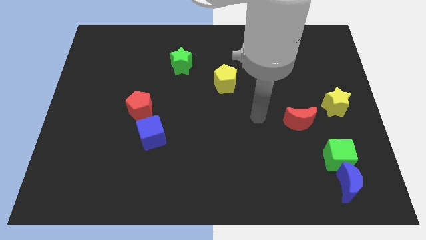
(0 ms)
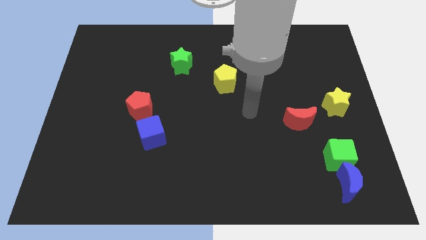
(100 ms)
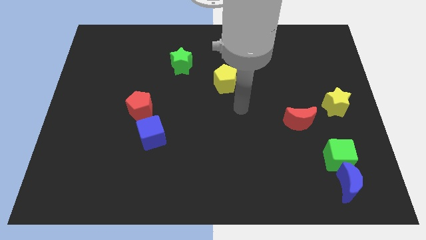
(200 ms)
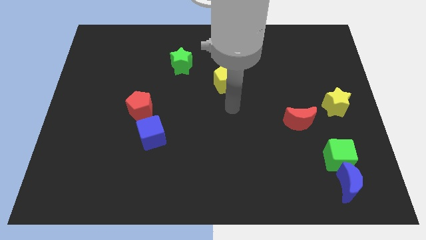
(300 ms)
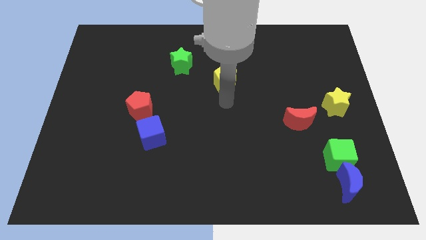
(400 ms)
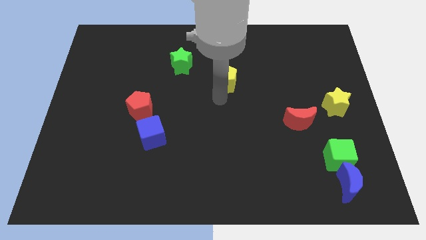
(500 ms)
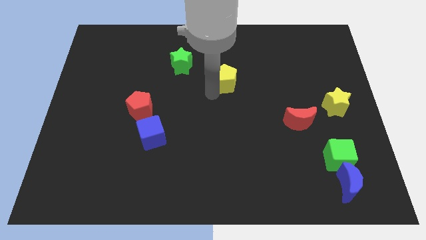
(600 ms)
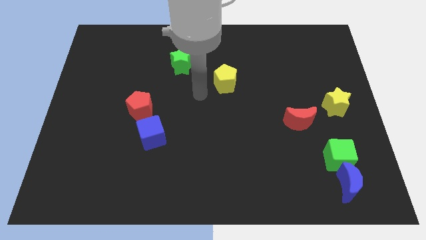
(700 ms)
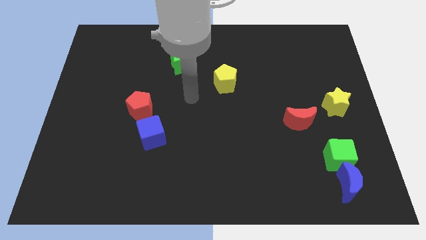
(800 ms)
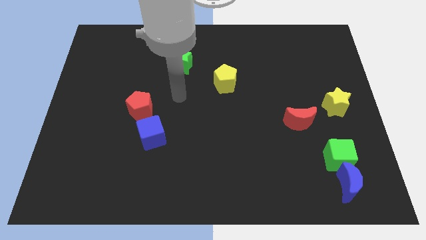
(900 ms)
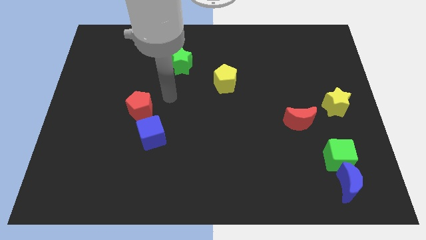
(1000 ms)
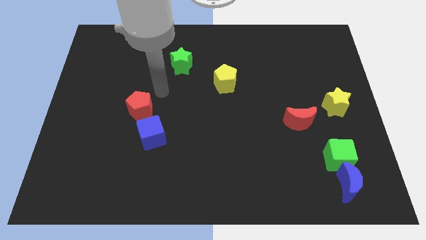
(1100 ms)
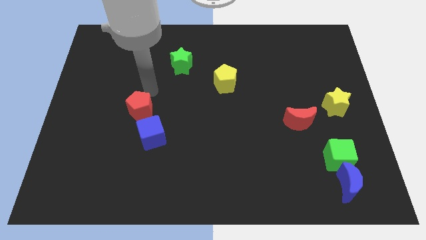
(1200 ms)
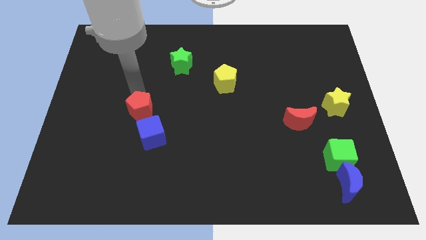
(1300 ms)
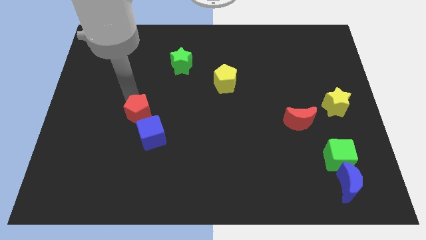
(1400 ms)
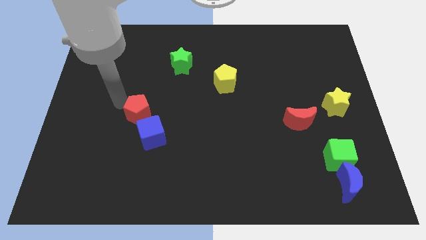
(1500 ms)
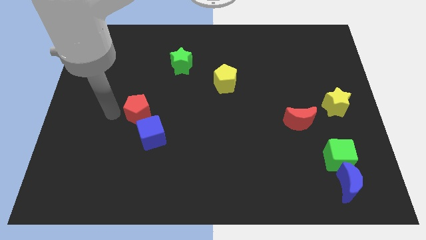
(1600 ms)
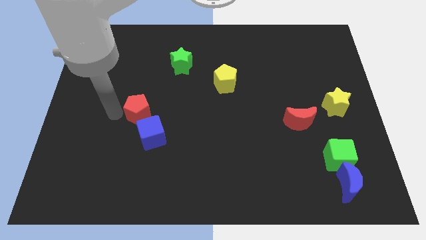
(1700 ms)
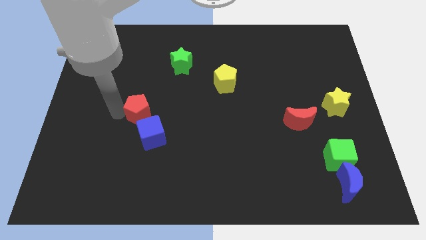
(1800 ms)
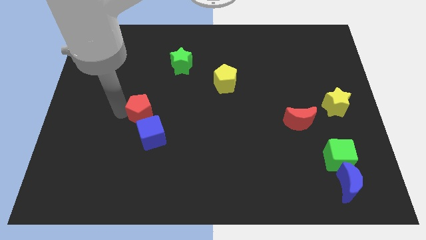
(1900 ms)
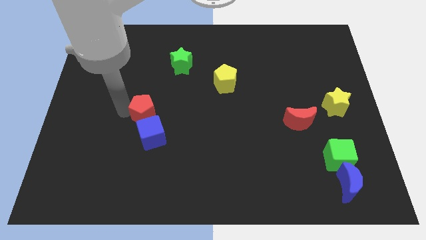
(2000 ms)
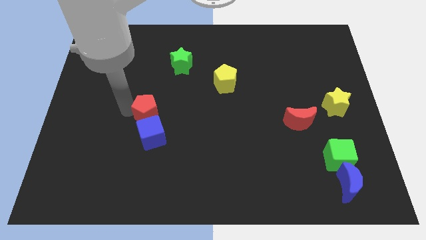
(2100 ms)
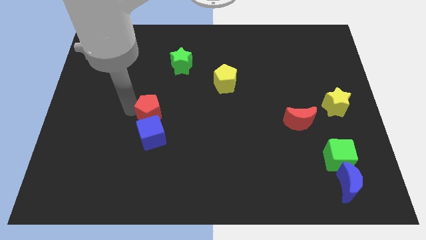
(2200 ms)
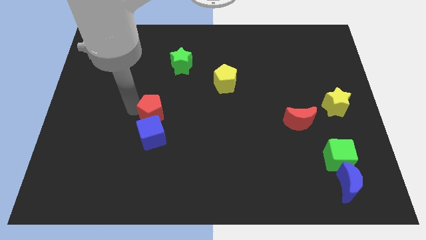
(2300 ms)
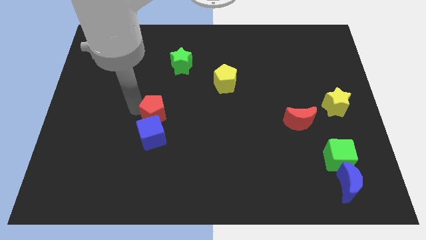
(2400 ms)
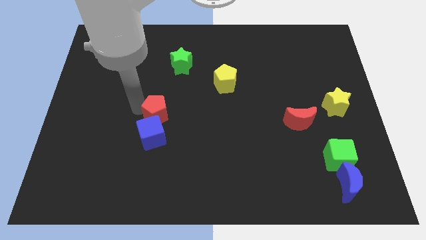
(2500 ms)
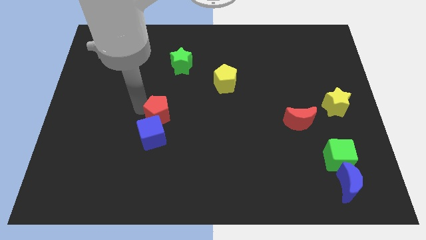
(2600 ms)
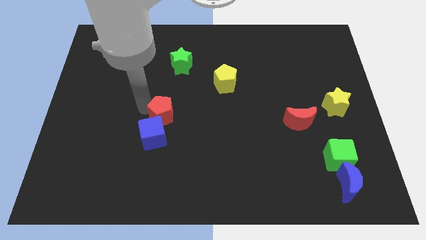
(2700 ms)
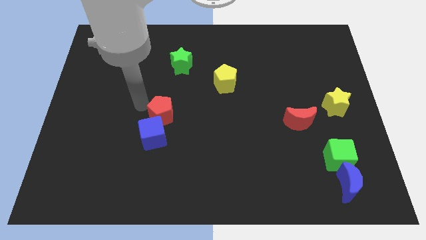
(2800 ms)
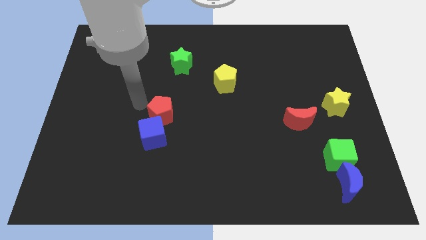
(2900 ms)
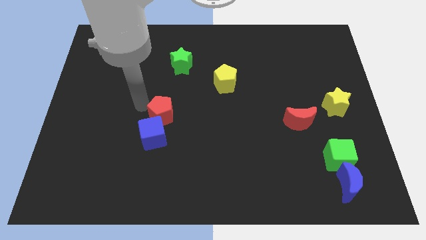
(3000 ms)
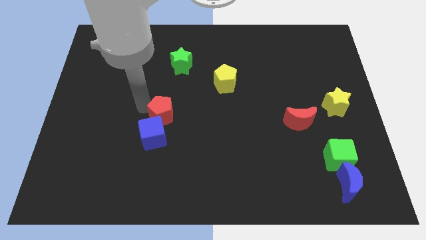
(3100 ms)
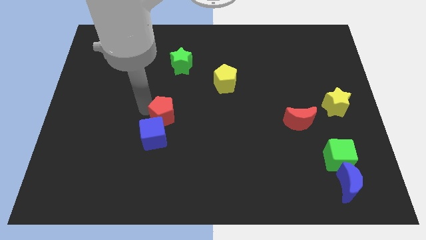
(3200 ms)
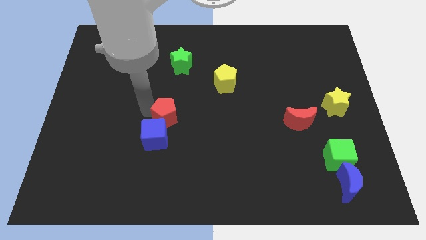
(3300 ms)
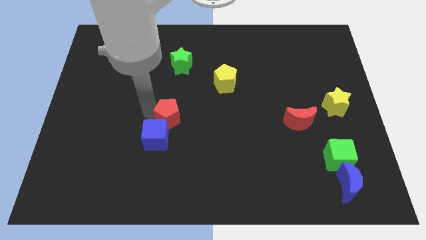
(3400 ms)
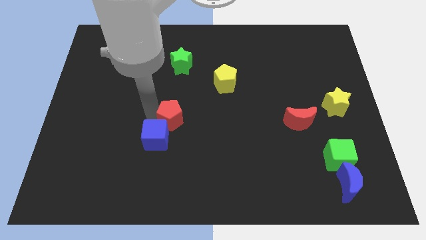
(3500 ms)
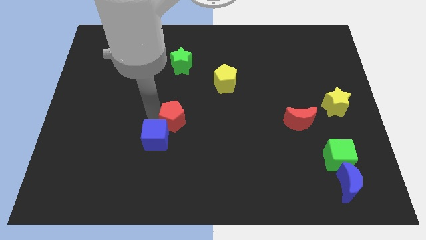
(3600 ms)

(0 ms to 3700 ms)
slide the red pentagon a little bit down and to the right

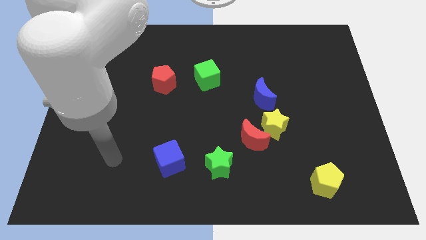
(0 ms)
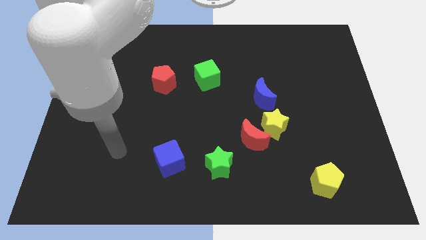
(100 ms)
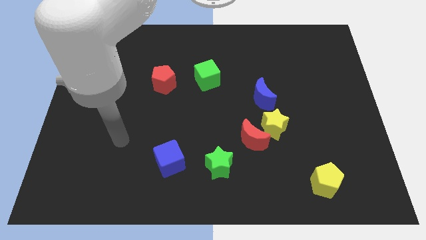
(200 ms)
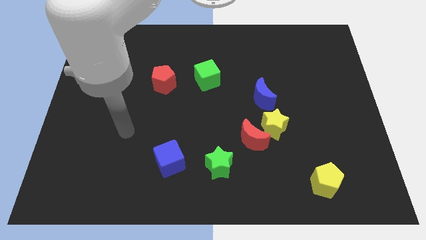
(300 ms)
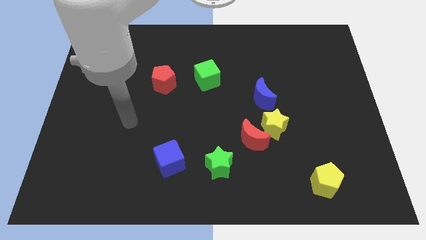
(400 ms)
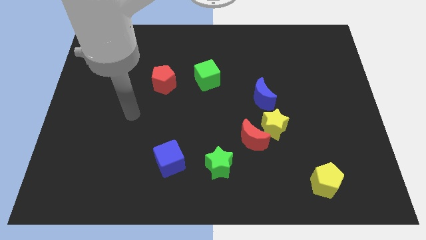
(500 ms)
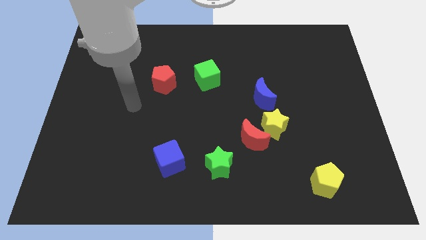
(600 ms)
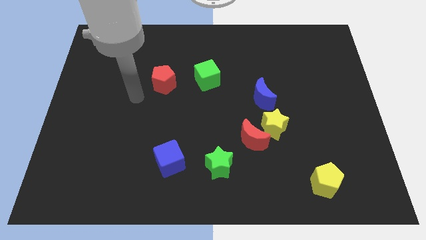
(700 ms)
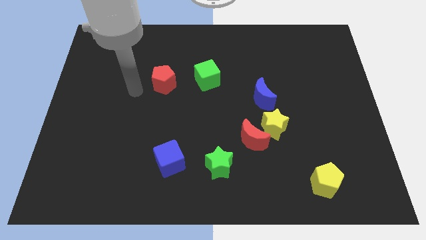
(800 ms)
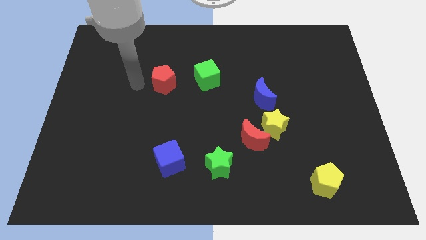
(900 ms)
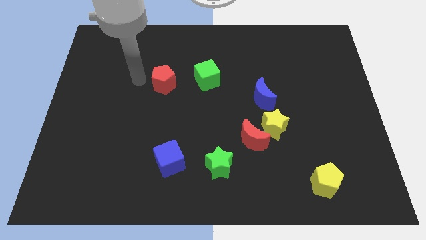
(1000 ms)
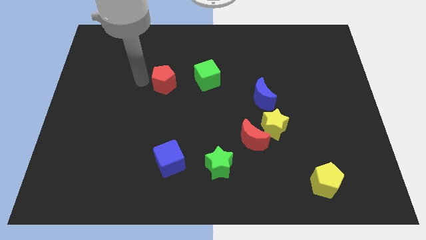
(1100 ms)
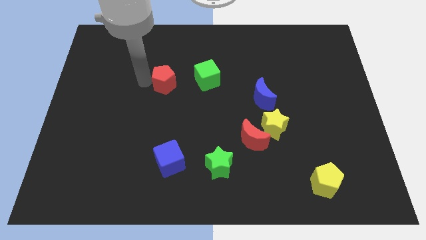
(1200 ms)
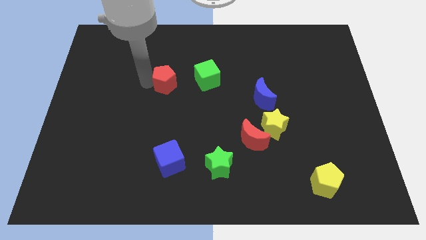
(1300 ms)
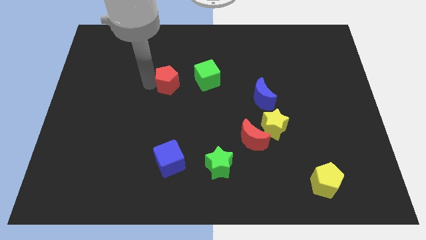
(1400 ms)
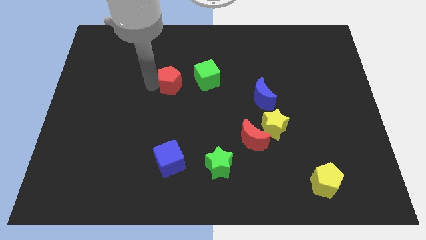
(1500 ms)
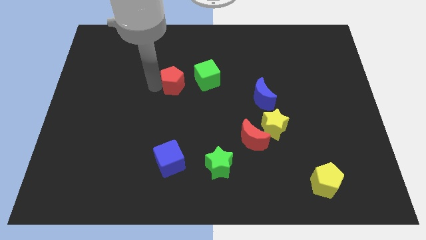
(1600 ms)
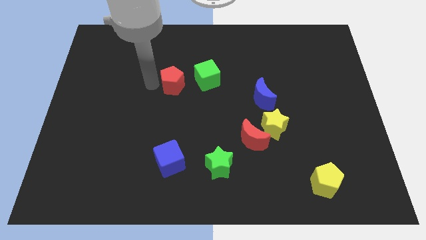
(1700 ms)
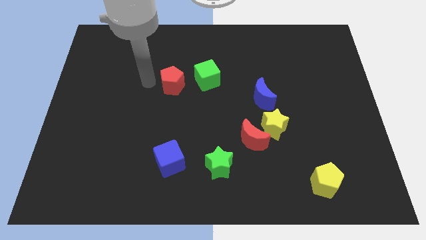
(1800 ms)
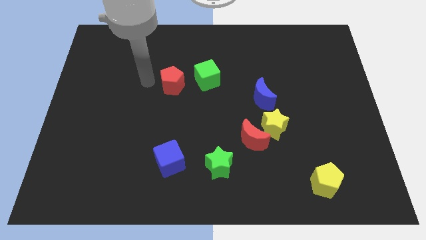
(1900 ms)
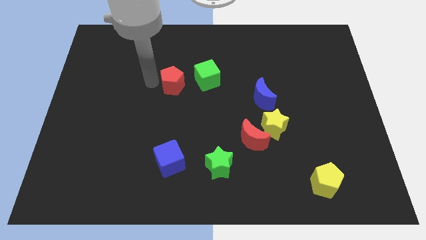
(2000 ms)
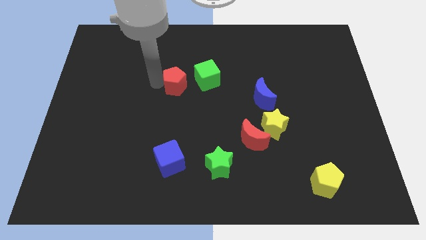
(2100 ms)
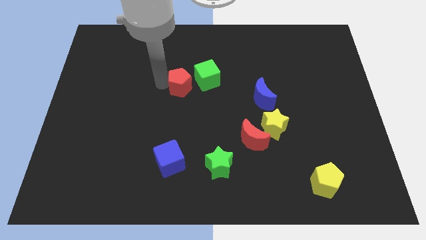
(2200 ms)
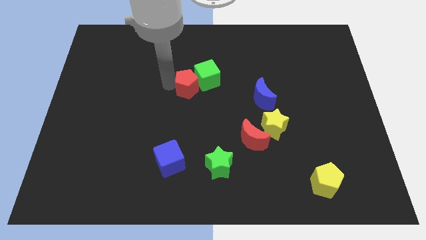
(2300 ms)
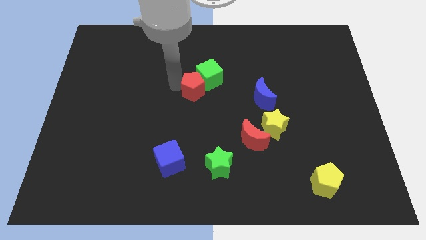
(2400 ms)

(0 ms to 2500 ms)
push the red pentagon slightly to the right

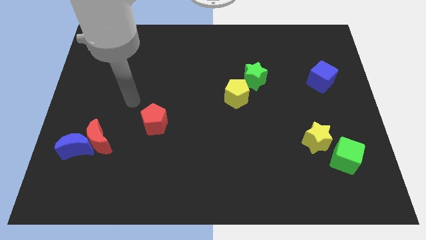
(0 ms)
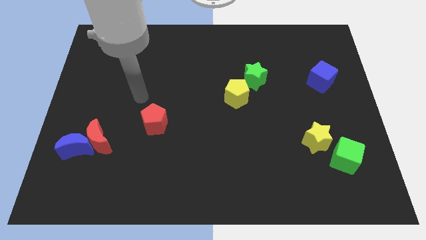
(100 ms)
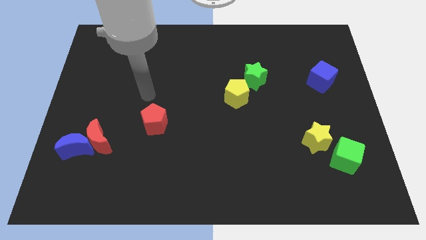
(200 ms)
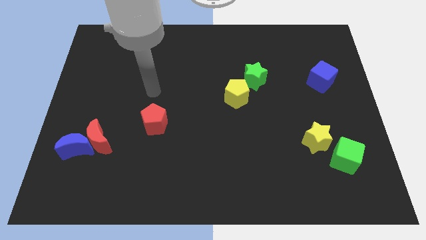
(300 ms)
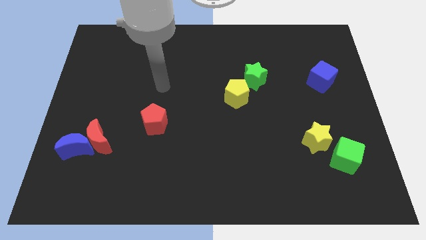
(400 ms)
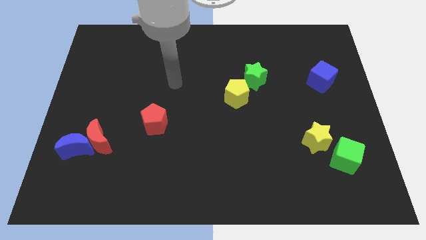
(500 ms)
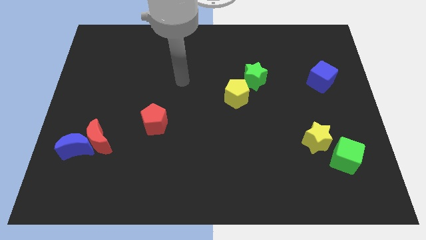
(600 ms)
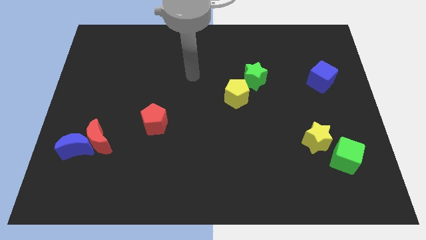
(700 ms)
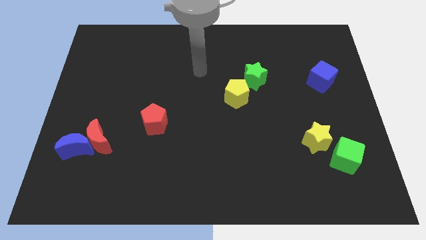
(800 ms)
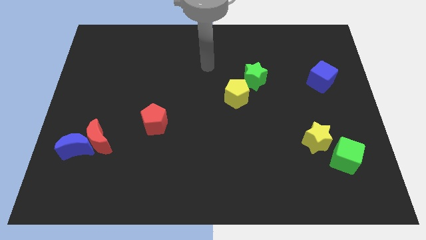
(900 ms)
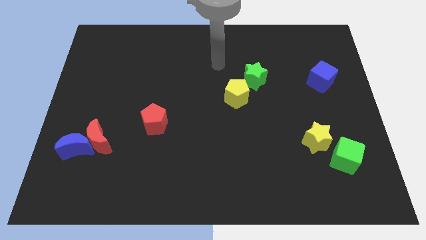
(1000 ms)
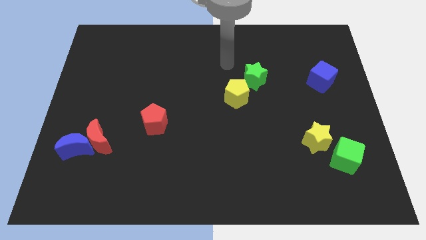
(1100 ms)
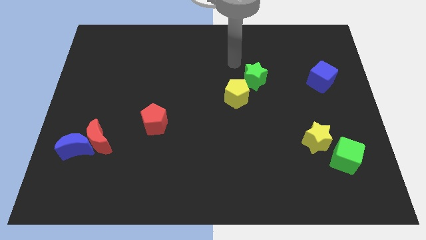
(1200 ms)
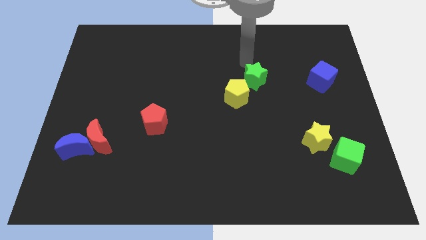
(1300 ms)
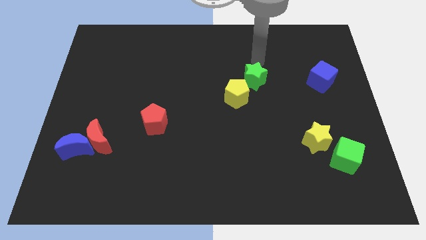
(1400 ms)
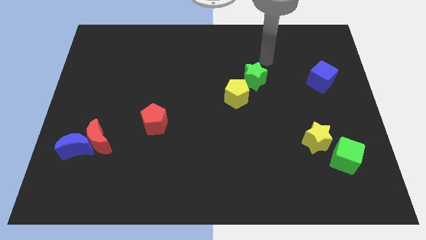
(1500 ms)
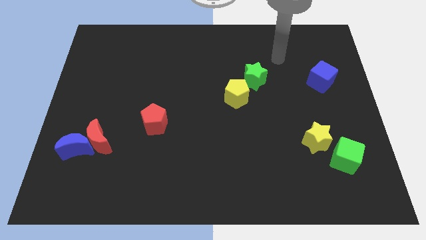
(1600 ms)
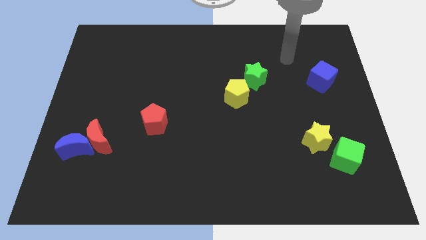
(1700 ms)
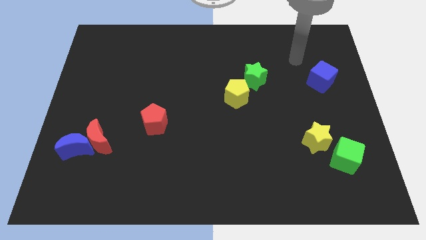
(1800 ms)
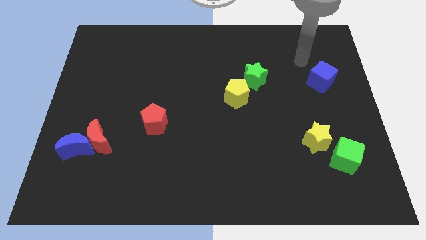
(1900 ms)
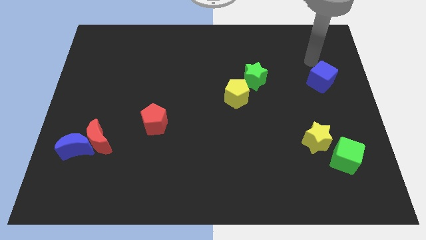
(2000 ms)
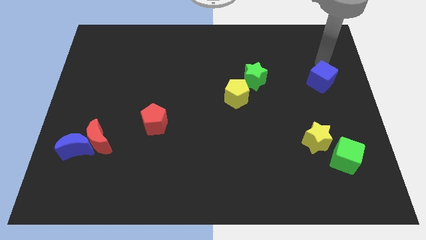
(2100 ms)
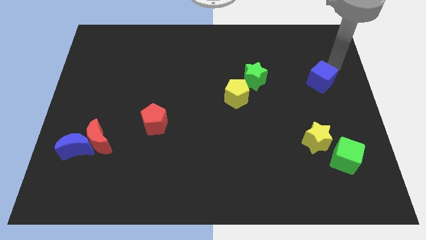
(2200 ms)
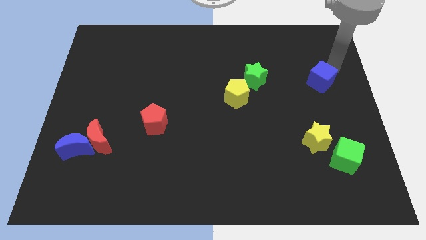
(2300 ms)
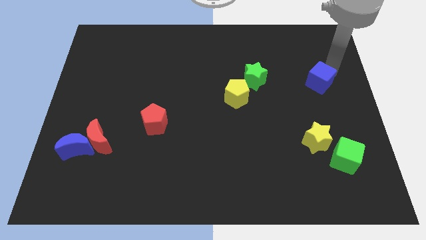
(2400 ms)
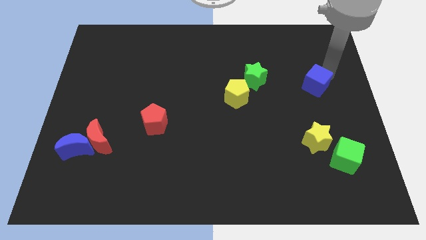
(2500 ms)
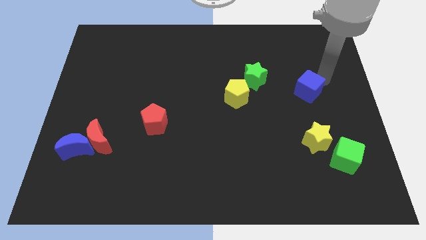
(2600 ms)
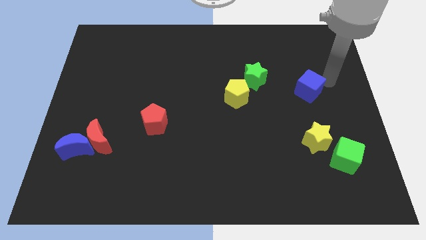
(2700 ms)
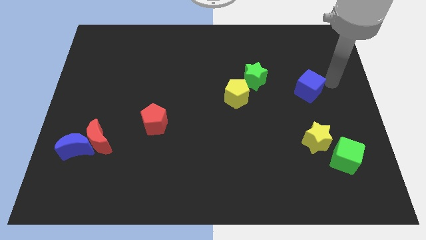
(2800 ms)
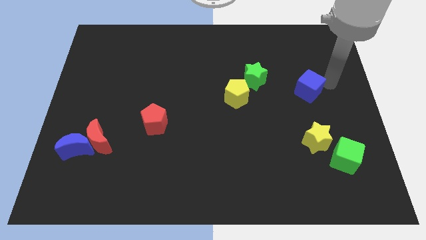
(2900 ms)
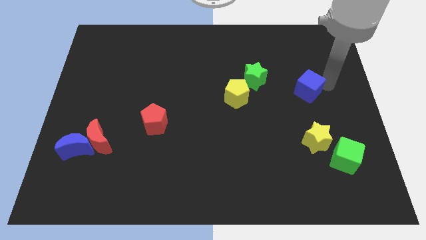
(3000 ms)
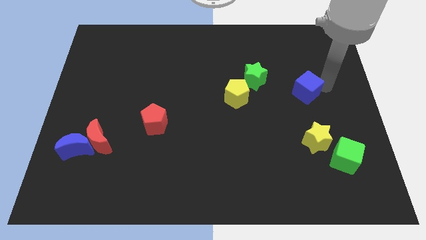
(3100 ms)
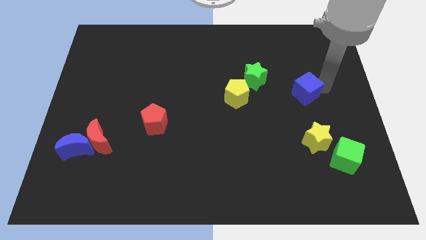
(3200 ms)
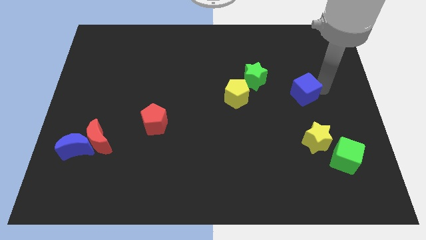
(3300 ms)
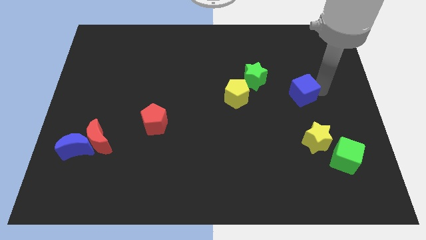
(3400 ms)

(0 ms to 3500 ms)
move the blue cube down and then to the left a bit
